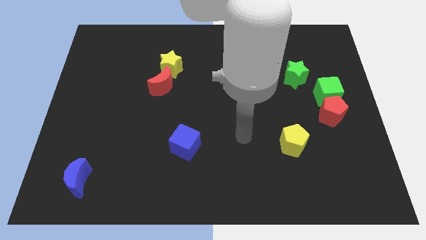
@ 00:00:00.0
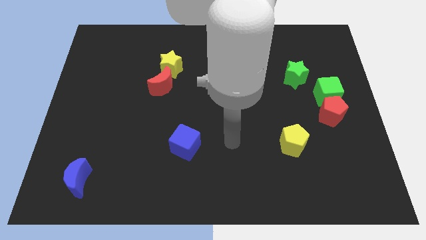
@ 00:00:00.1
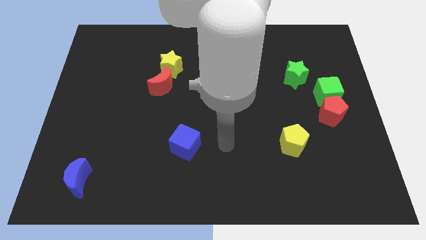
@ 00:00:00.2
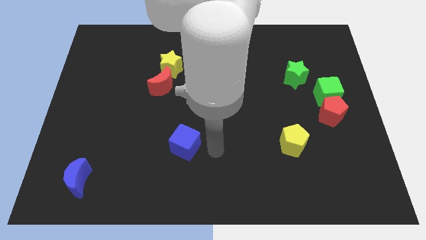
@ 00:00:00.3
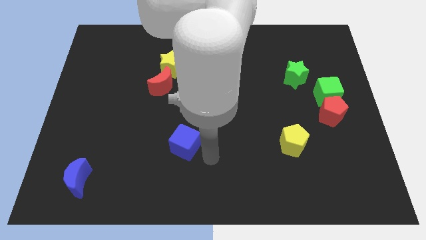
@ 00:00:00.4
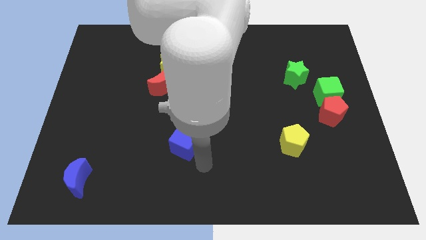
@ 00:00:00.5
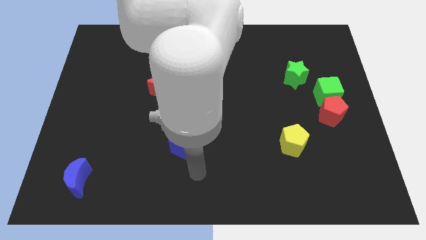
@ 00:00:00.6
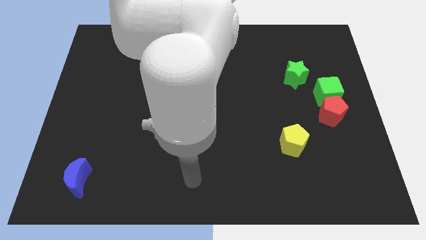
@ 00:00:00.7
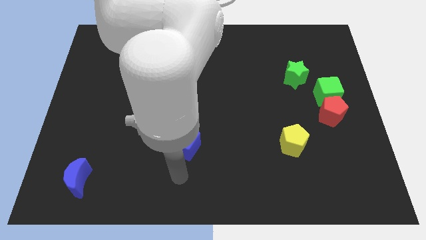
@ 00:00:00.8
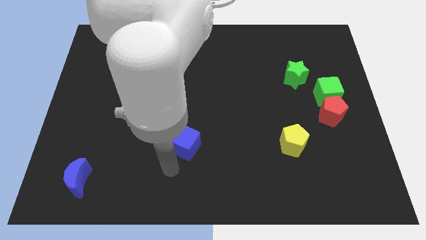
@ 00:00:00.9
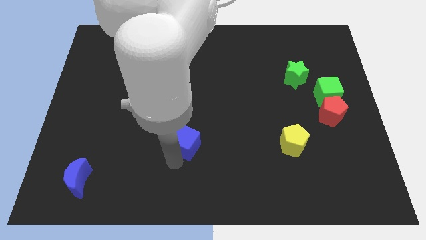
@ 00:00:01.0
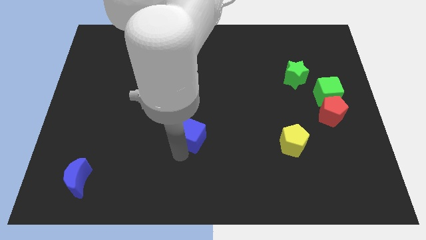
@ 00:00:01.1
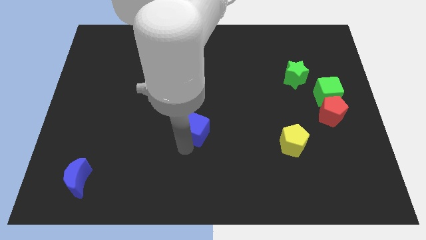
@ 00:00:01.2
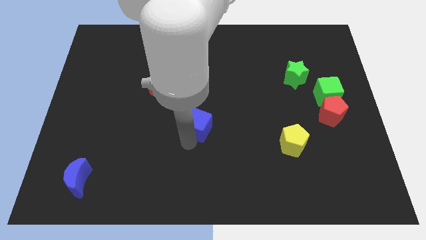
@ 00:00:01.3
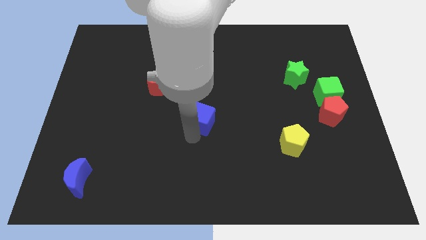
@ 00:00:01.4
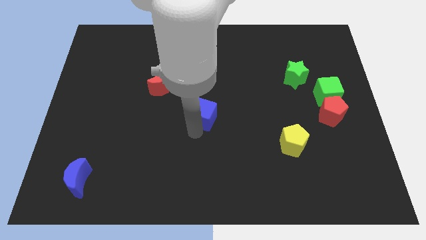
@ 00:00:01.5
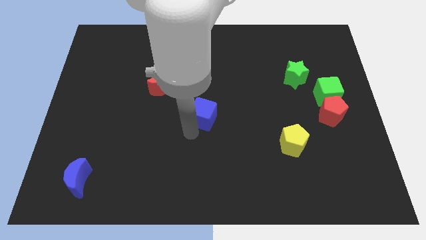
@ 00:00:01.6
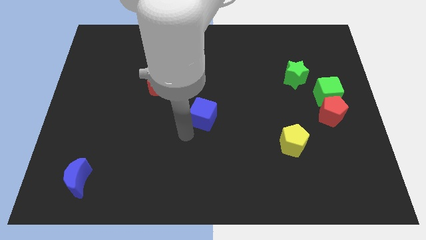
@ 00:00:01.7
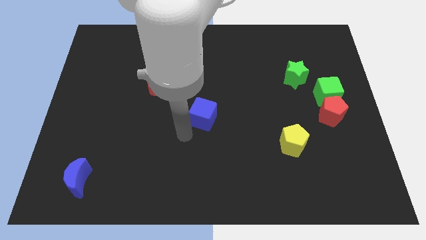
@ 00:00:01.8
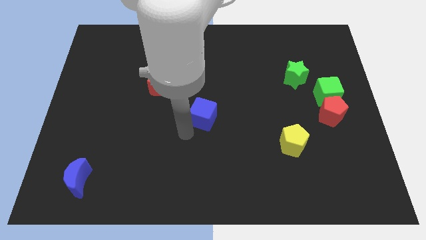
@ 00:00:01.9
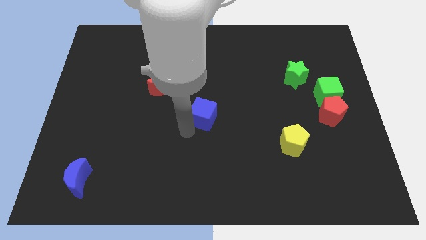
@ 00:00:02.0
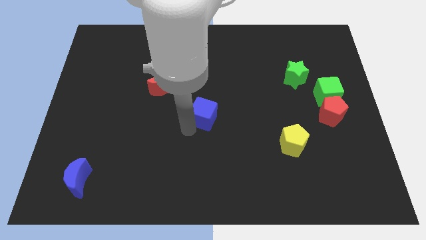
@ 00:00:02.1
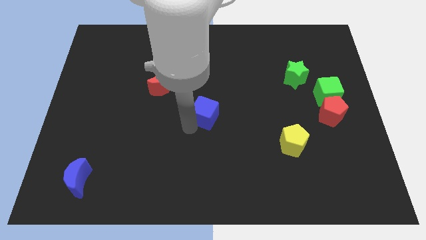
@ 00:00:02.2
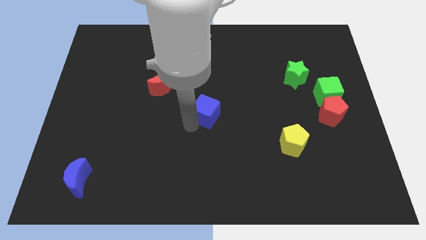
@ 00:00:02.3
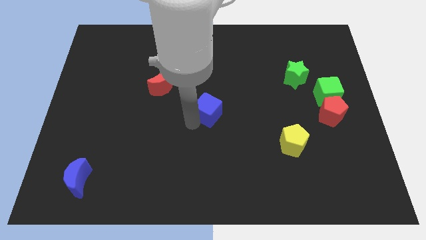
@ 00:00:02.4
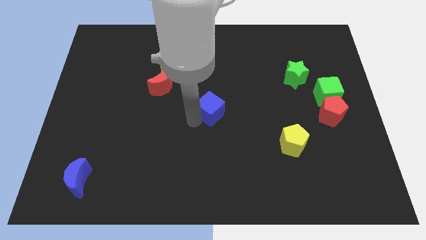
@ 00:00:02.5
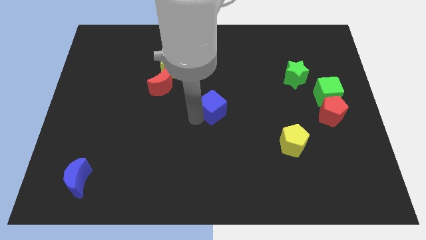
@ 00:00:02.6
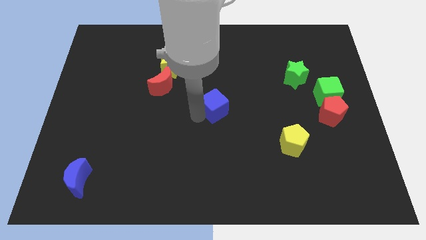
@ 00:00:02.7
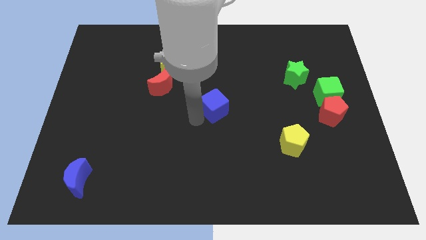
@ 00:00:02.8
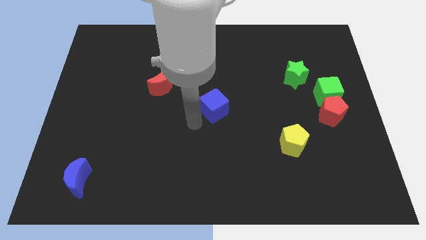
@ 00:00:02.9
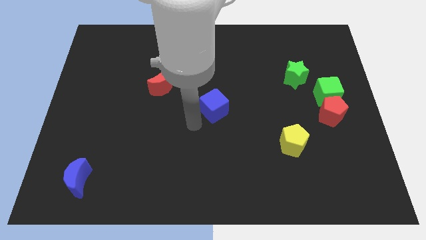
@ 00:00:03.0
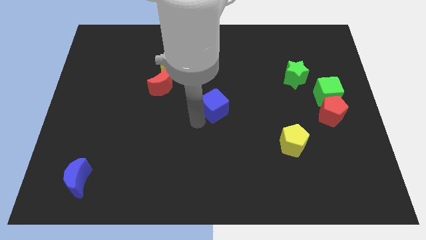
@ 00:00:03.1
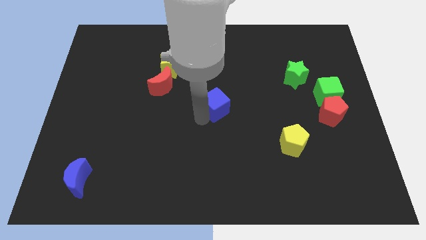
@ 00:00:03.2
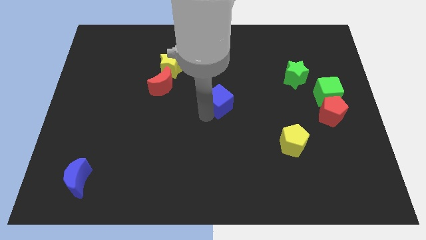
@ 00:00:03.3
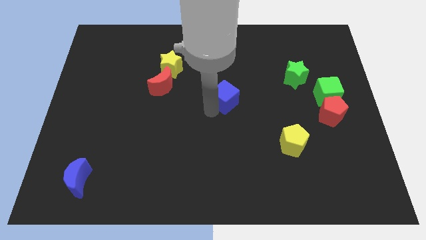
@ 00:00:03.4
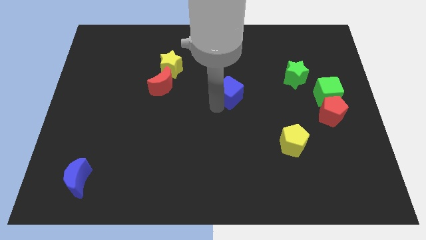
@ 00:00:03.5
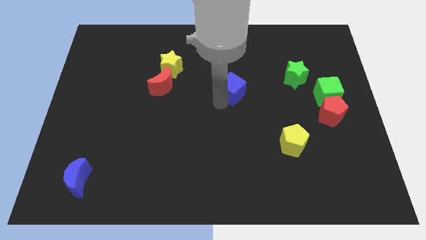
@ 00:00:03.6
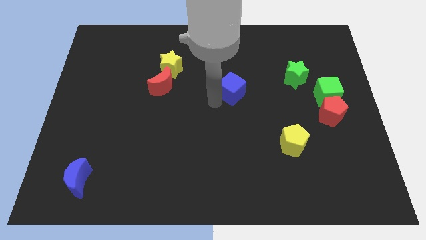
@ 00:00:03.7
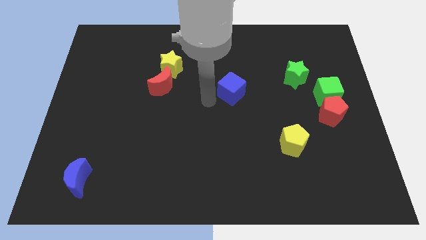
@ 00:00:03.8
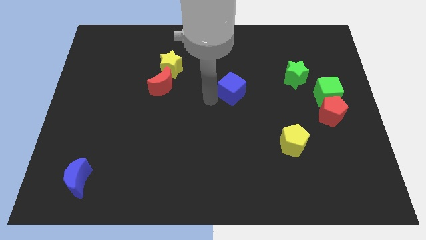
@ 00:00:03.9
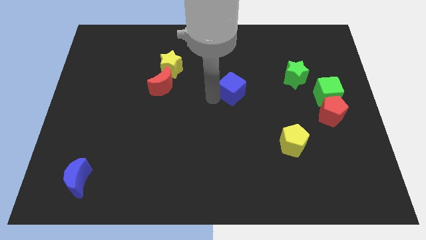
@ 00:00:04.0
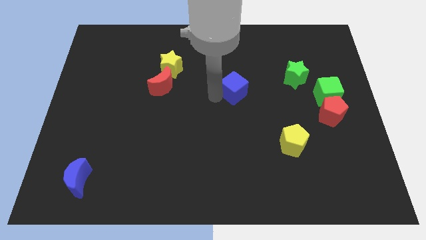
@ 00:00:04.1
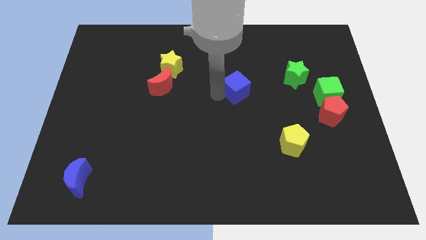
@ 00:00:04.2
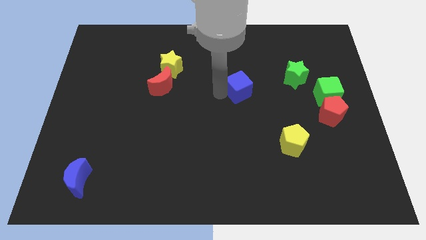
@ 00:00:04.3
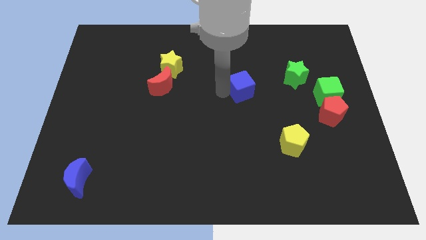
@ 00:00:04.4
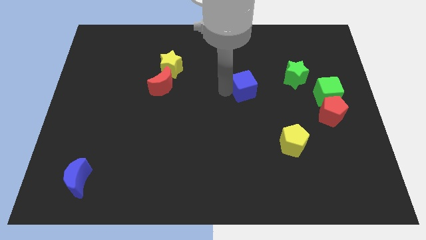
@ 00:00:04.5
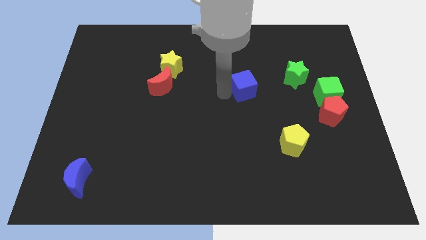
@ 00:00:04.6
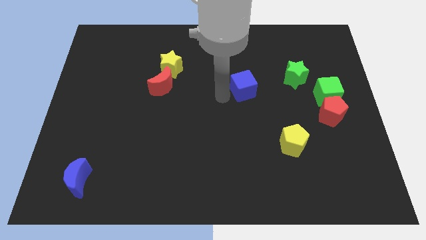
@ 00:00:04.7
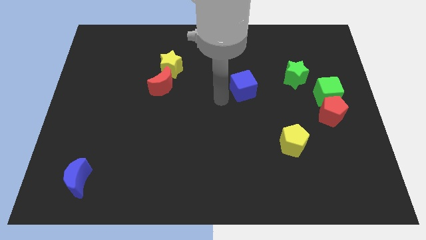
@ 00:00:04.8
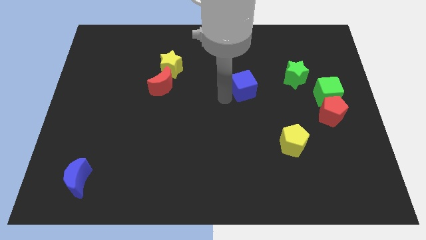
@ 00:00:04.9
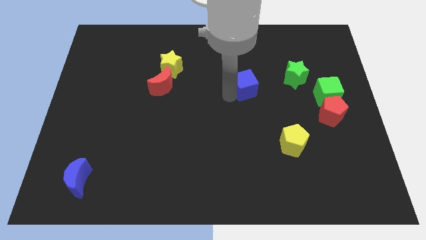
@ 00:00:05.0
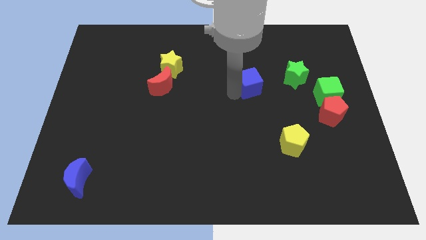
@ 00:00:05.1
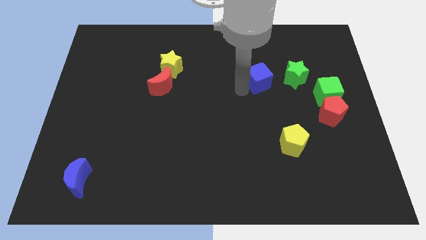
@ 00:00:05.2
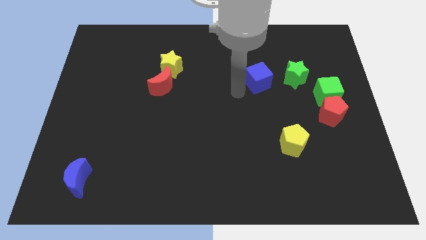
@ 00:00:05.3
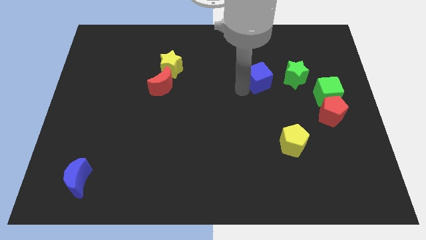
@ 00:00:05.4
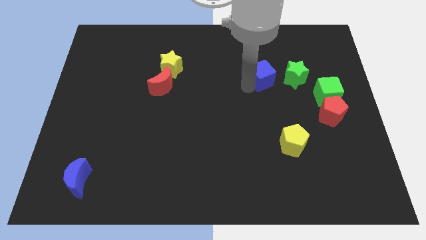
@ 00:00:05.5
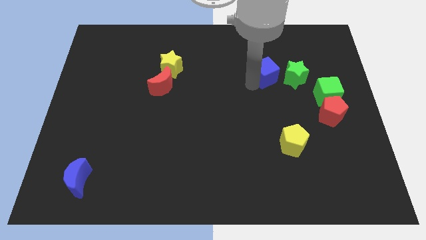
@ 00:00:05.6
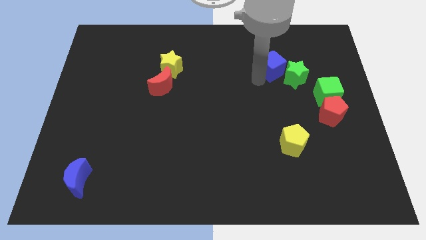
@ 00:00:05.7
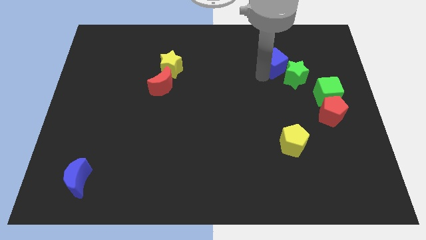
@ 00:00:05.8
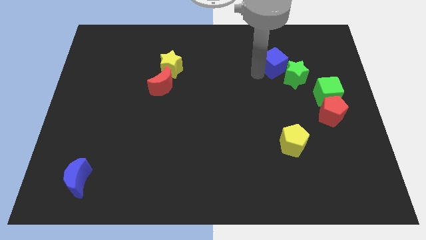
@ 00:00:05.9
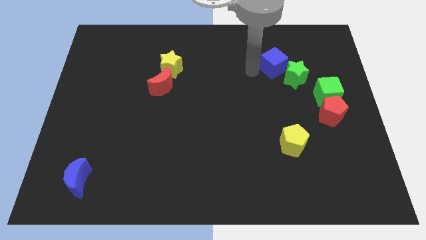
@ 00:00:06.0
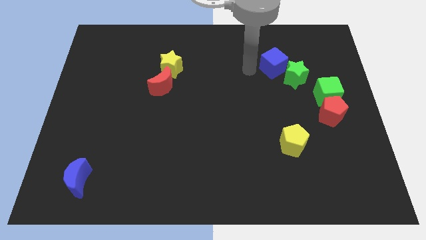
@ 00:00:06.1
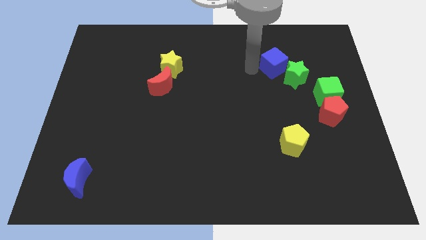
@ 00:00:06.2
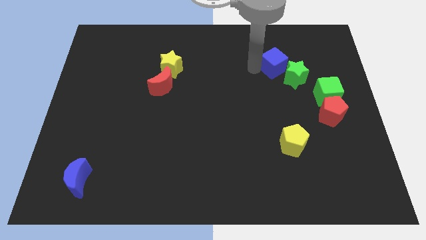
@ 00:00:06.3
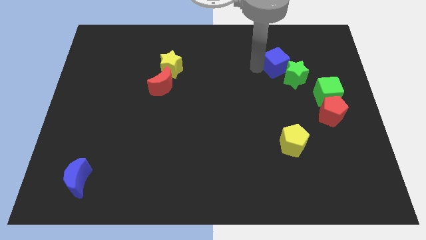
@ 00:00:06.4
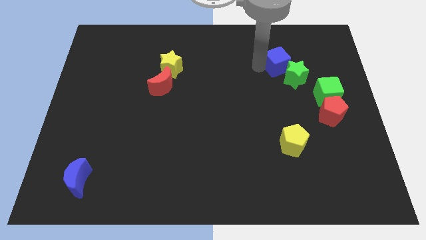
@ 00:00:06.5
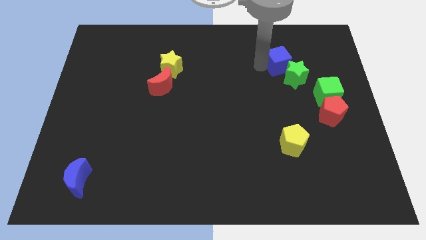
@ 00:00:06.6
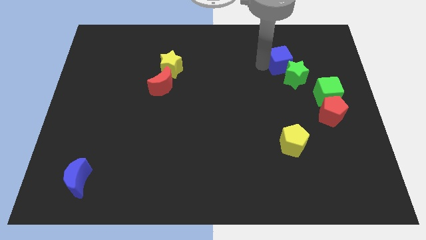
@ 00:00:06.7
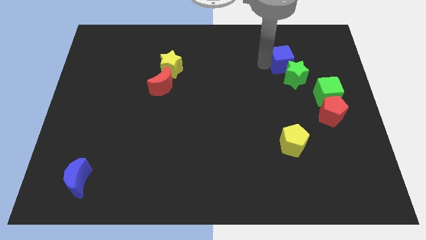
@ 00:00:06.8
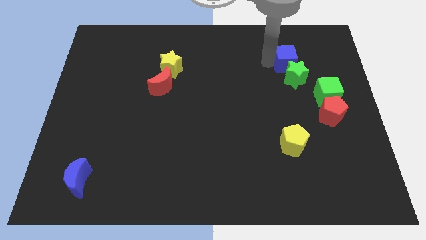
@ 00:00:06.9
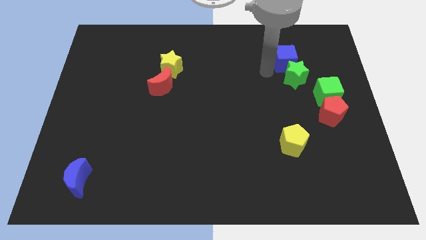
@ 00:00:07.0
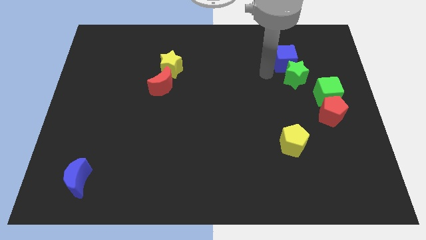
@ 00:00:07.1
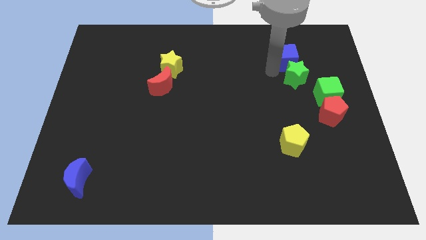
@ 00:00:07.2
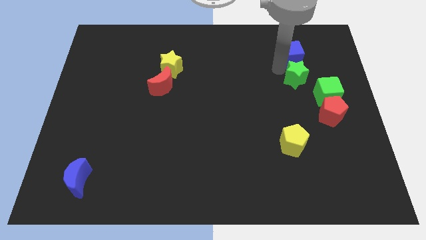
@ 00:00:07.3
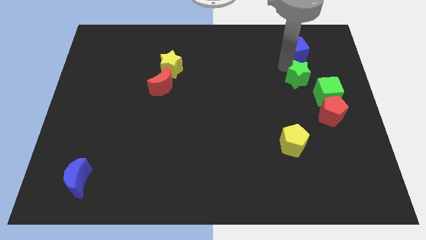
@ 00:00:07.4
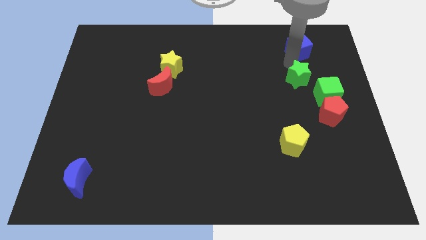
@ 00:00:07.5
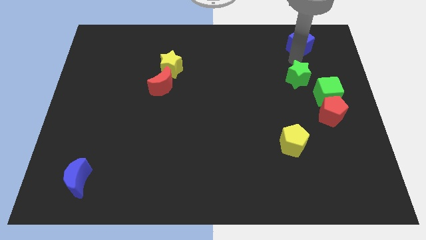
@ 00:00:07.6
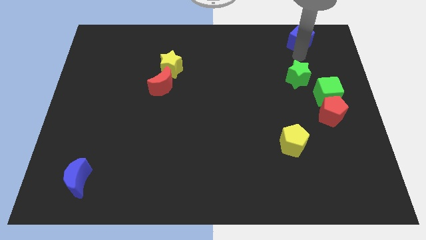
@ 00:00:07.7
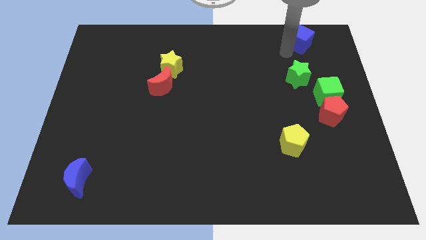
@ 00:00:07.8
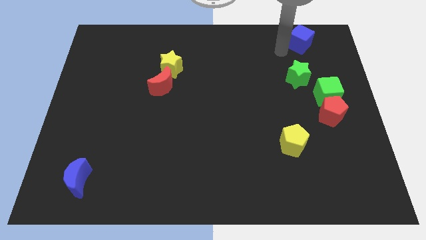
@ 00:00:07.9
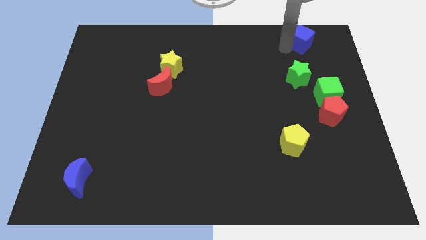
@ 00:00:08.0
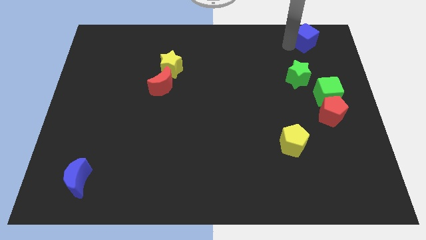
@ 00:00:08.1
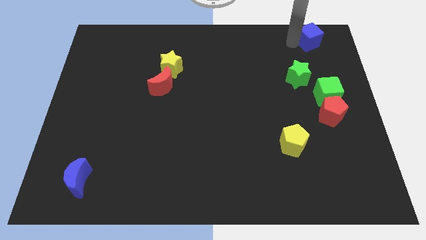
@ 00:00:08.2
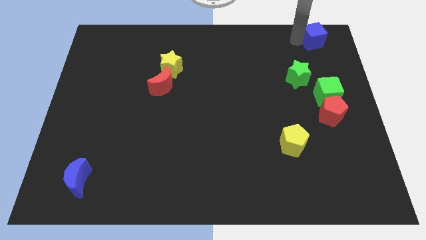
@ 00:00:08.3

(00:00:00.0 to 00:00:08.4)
put the blue cube to the top right of the board
